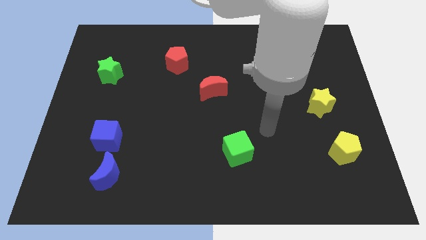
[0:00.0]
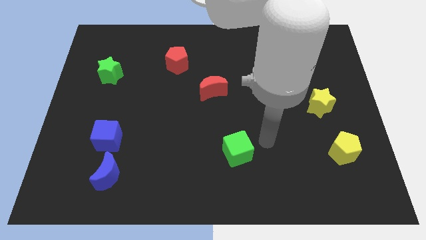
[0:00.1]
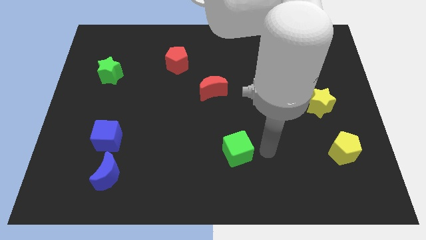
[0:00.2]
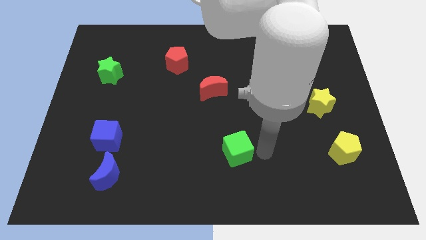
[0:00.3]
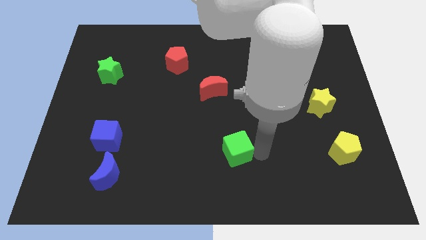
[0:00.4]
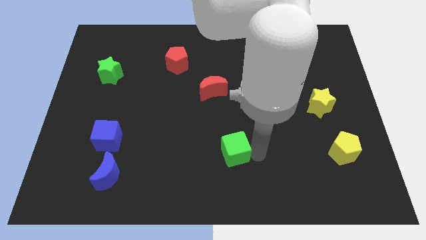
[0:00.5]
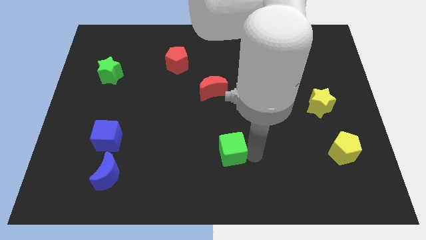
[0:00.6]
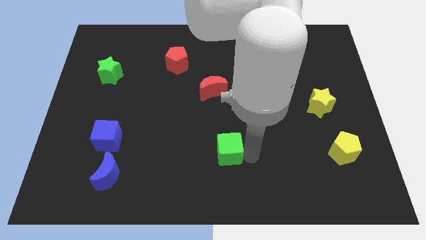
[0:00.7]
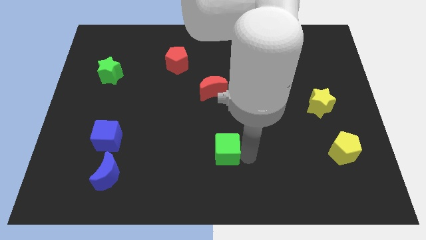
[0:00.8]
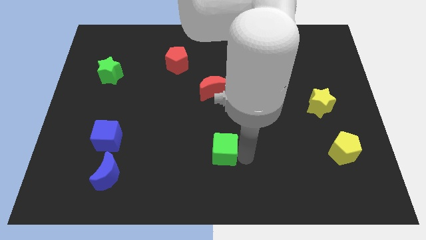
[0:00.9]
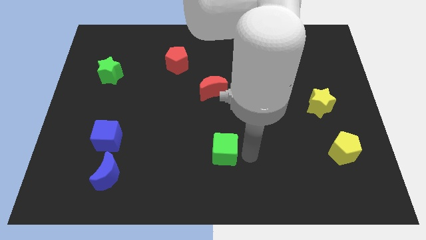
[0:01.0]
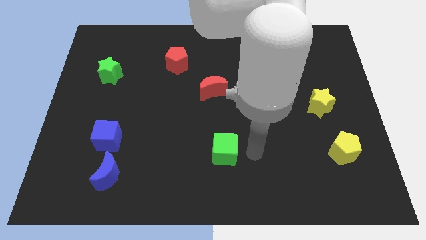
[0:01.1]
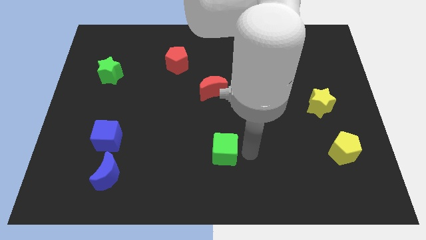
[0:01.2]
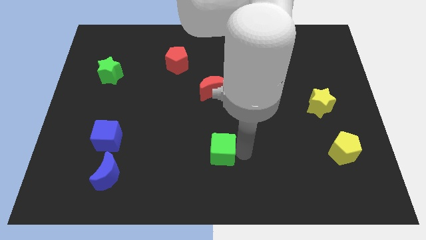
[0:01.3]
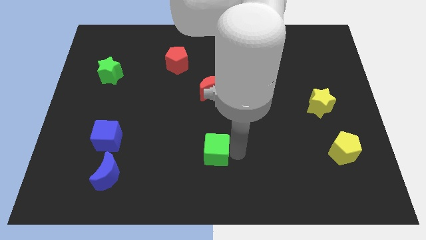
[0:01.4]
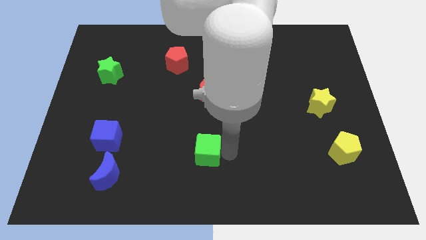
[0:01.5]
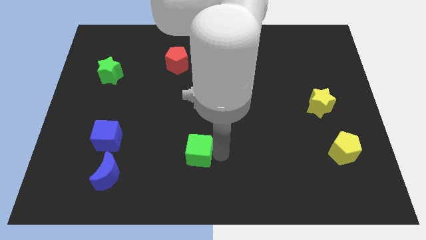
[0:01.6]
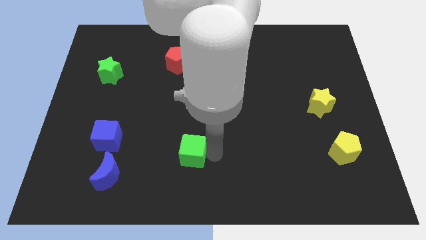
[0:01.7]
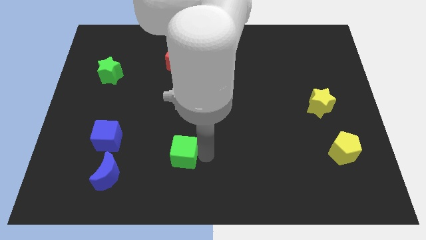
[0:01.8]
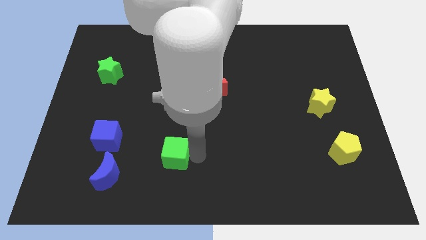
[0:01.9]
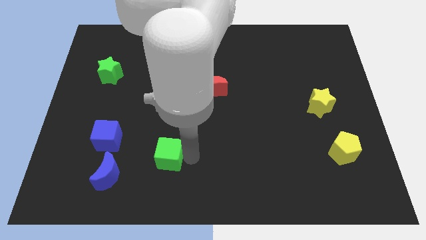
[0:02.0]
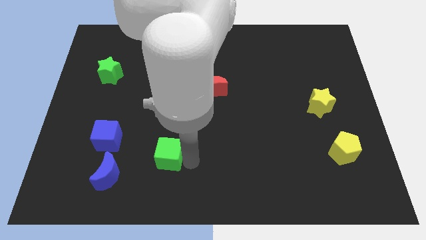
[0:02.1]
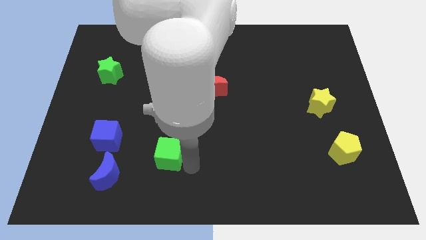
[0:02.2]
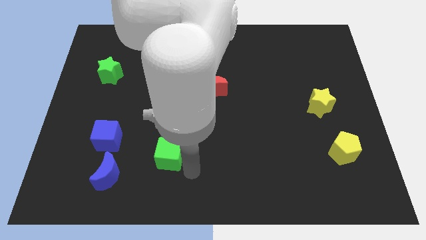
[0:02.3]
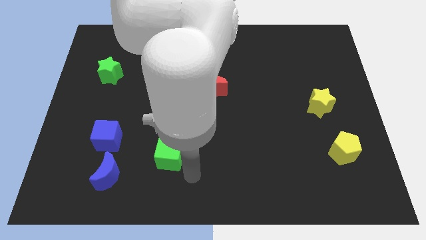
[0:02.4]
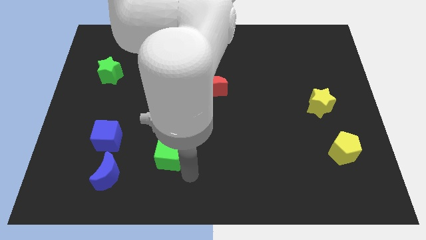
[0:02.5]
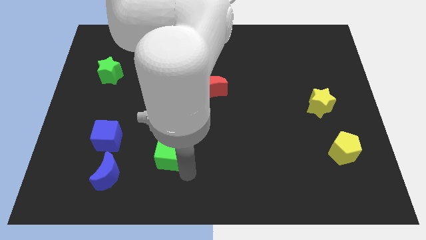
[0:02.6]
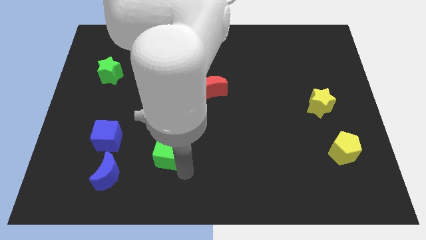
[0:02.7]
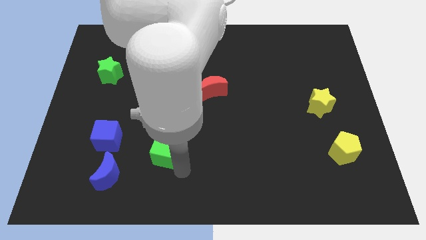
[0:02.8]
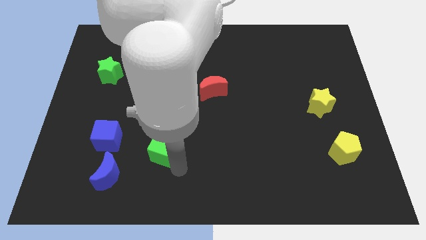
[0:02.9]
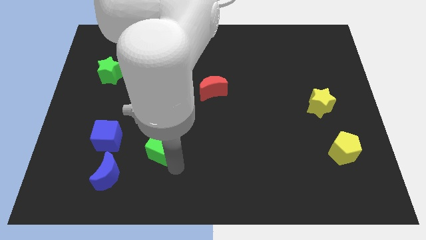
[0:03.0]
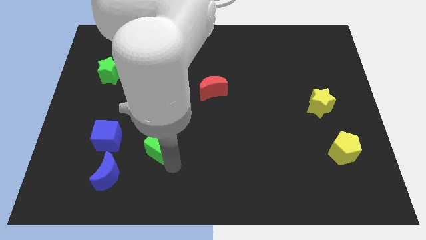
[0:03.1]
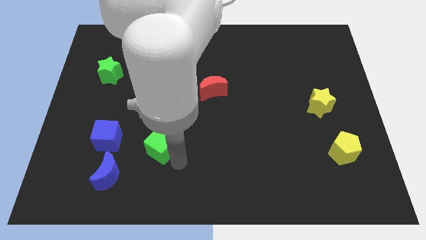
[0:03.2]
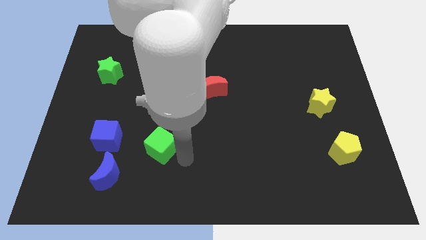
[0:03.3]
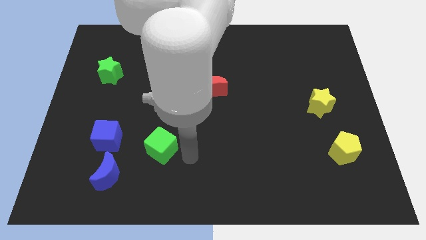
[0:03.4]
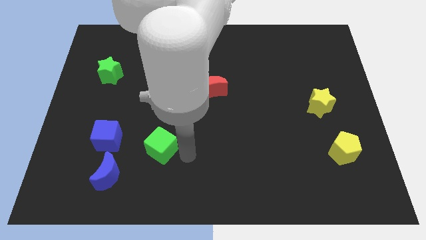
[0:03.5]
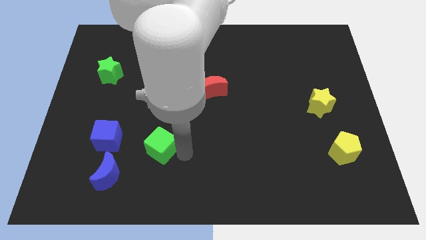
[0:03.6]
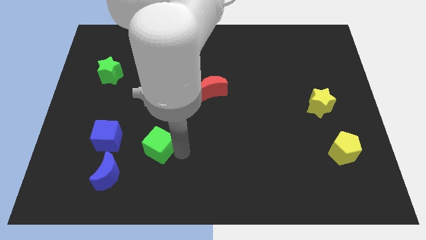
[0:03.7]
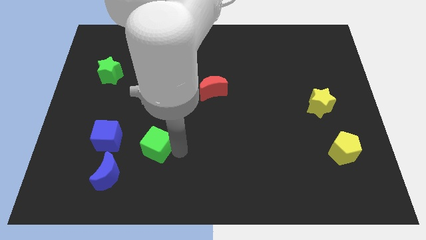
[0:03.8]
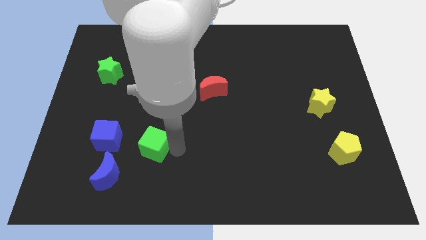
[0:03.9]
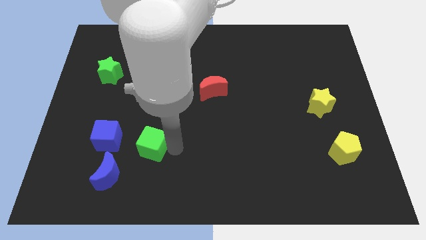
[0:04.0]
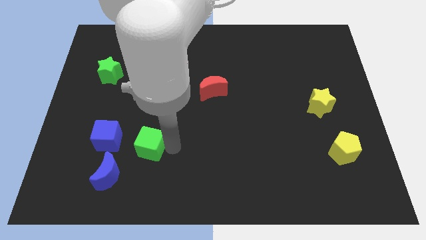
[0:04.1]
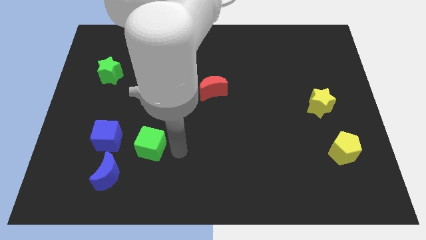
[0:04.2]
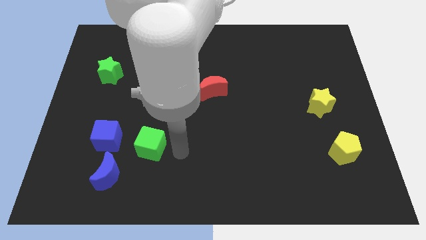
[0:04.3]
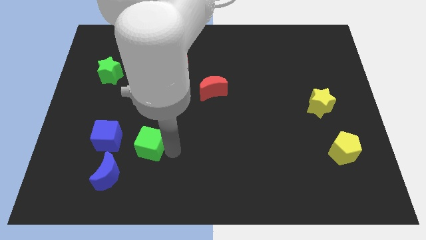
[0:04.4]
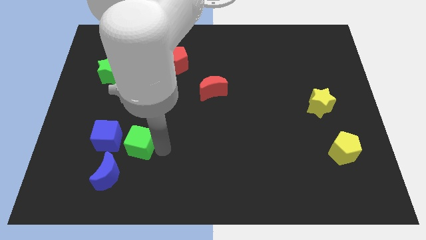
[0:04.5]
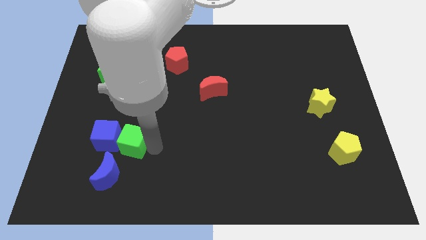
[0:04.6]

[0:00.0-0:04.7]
move the green cube towards the blue cube

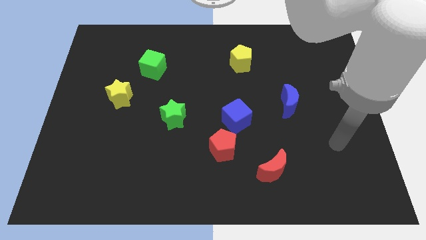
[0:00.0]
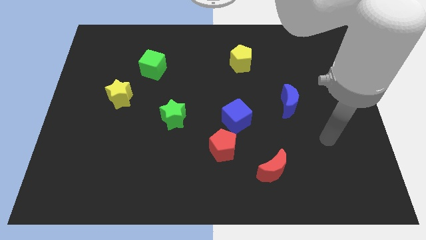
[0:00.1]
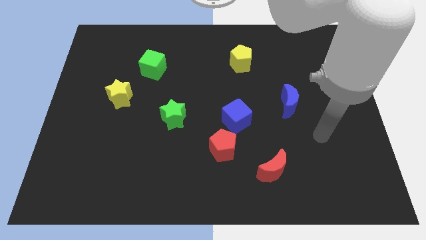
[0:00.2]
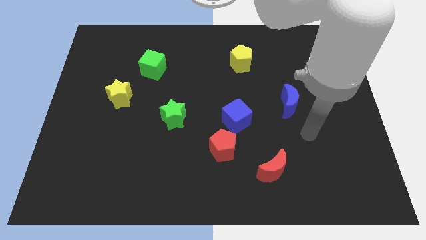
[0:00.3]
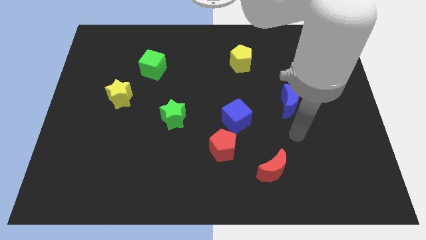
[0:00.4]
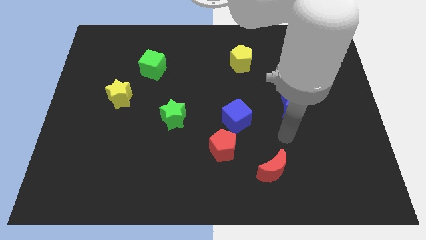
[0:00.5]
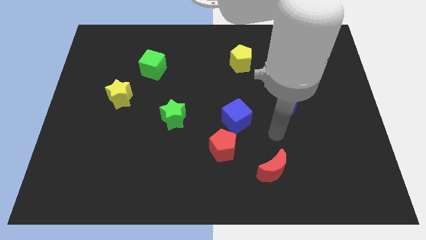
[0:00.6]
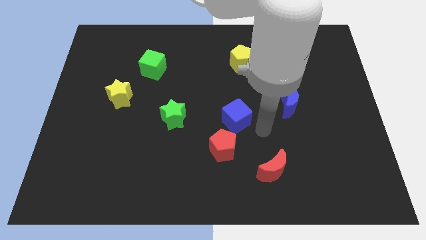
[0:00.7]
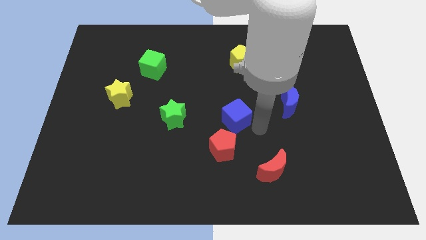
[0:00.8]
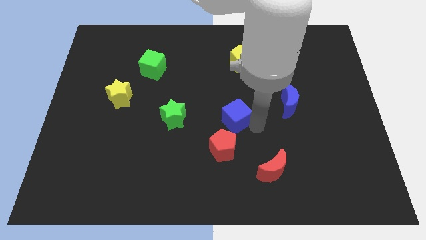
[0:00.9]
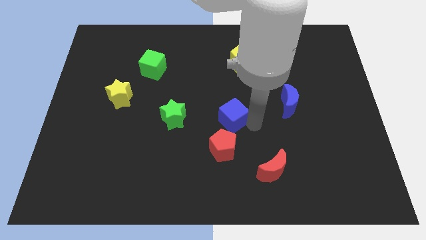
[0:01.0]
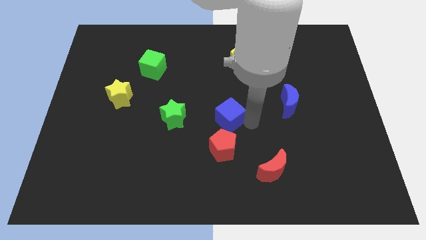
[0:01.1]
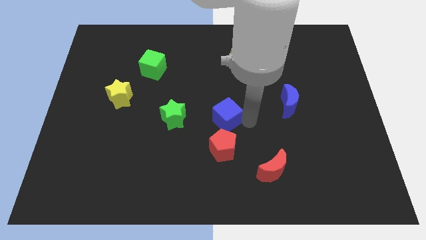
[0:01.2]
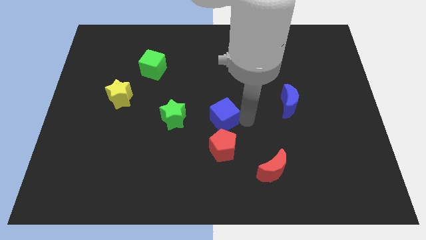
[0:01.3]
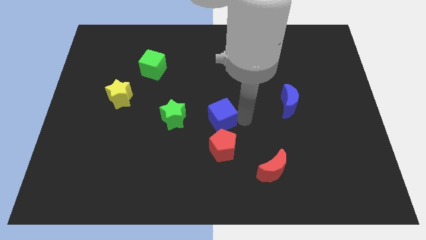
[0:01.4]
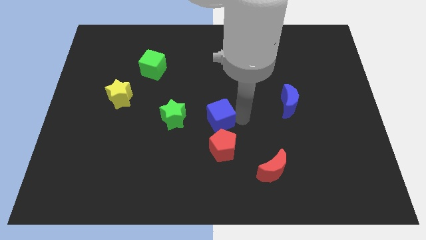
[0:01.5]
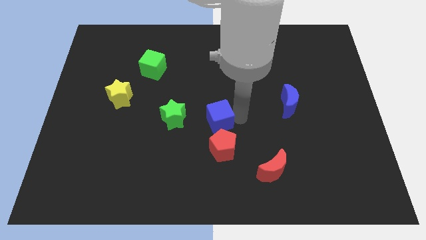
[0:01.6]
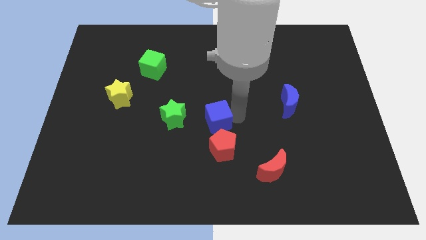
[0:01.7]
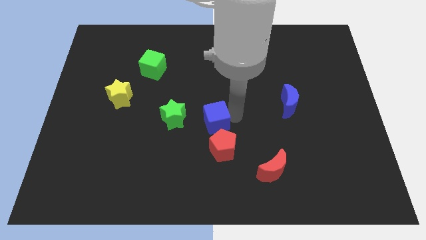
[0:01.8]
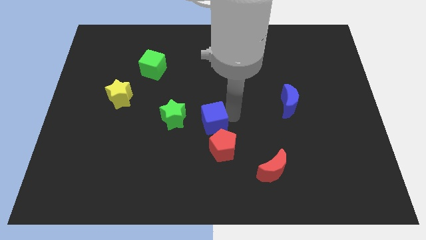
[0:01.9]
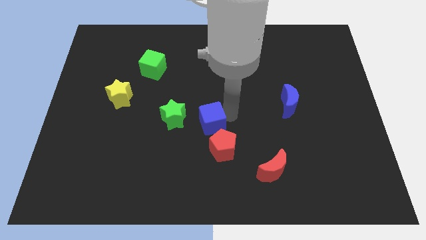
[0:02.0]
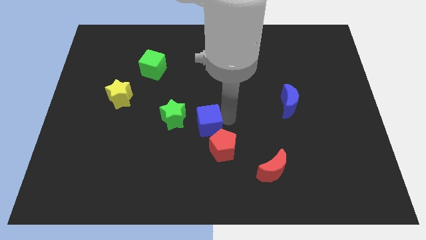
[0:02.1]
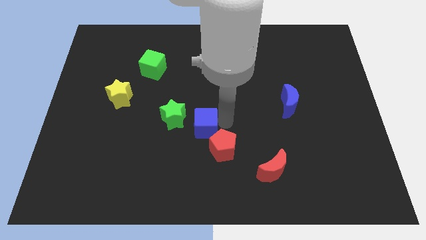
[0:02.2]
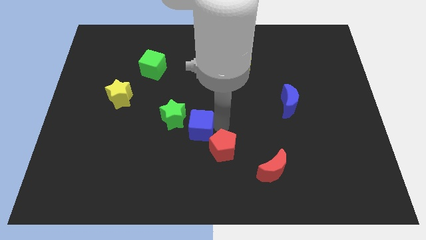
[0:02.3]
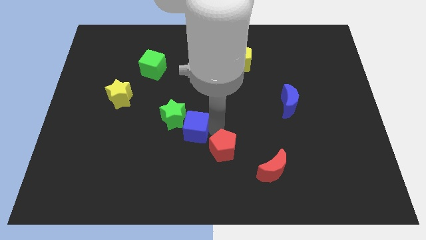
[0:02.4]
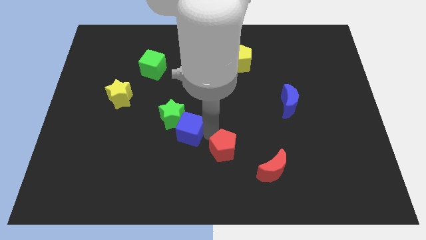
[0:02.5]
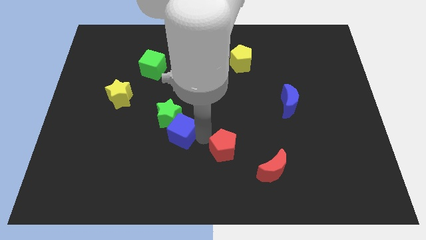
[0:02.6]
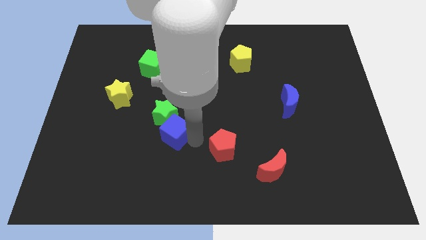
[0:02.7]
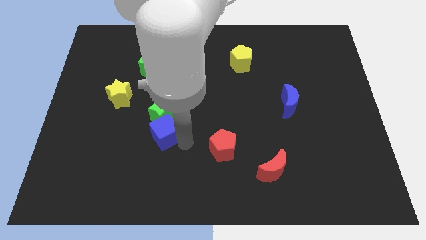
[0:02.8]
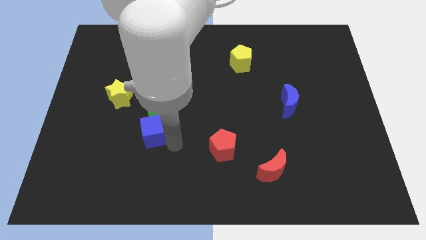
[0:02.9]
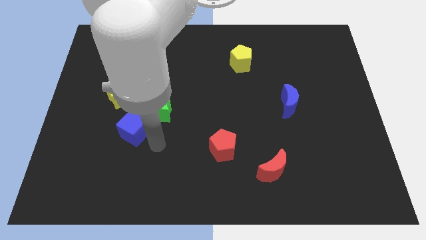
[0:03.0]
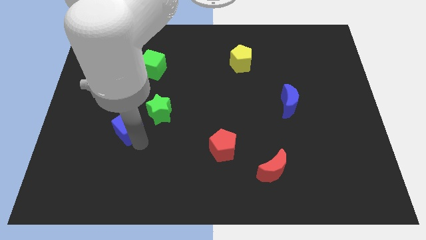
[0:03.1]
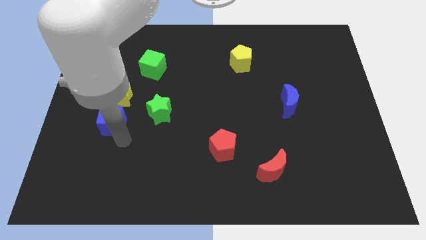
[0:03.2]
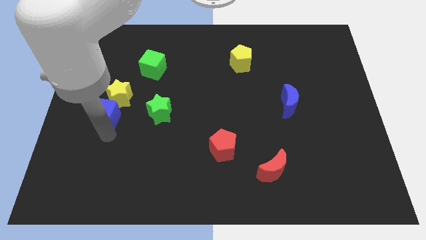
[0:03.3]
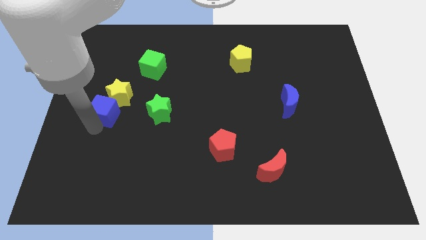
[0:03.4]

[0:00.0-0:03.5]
put the blue cube to the yellow star
